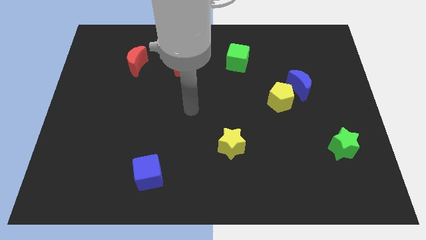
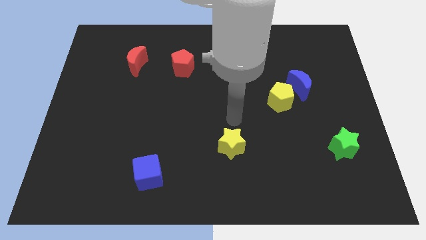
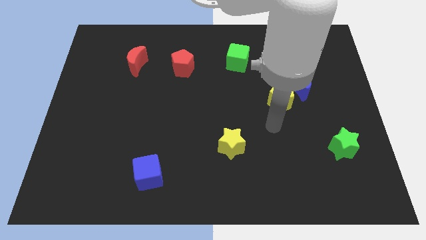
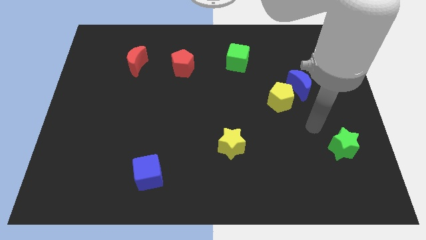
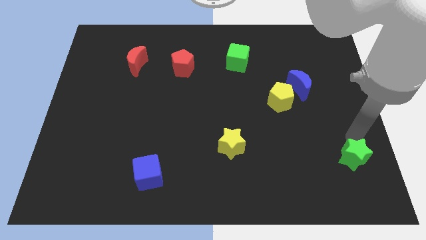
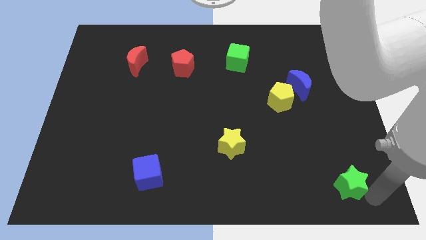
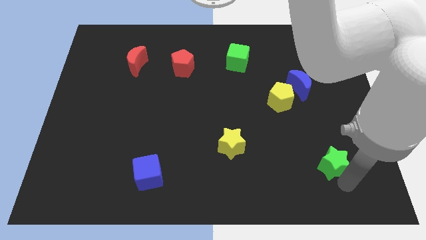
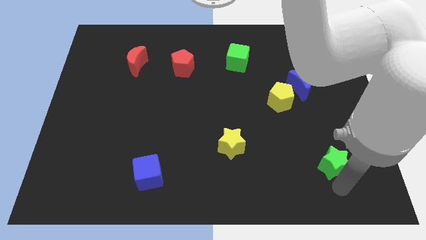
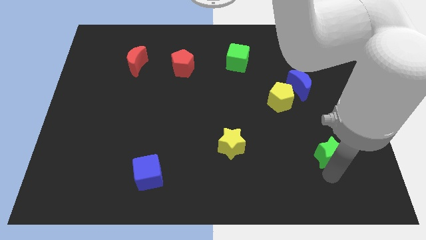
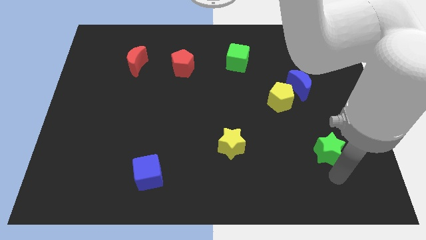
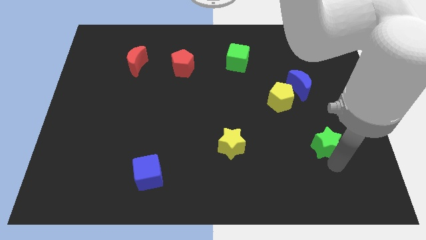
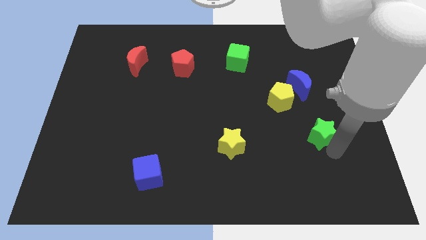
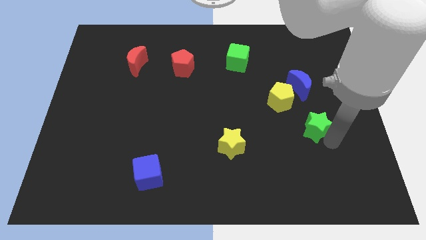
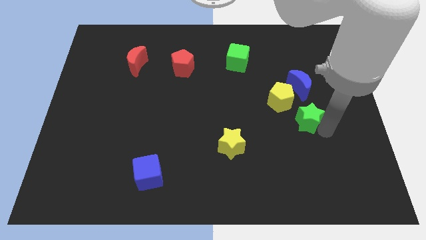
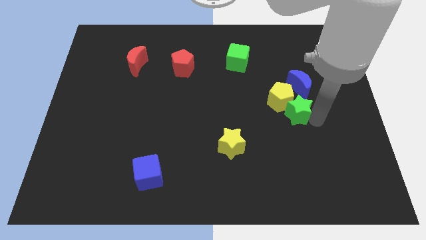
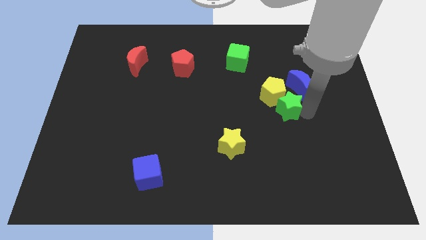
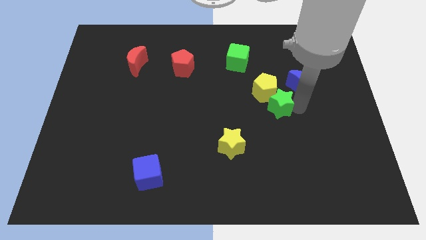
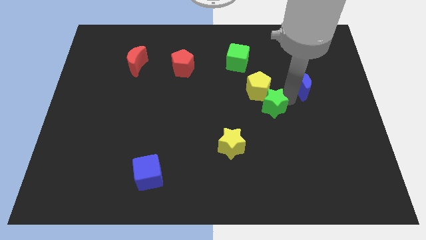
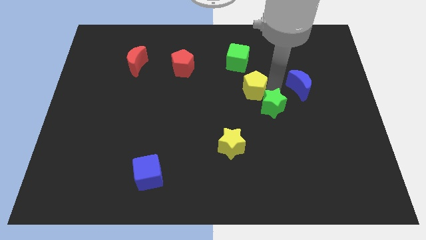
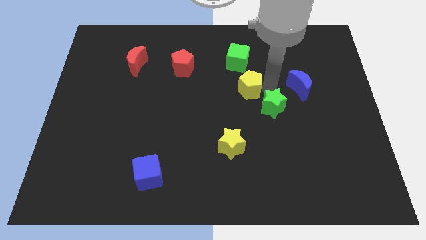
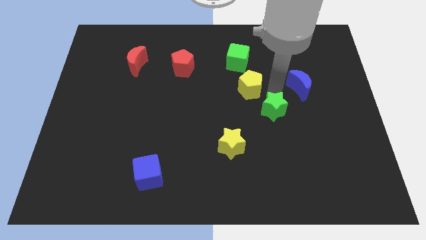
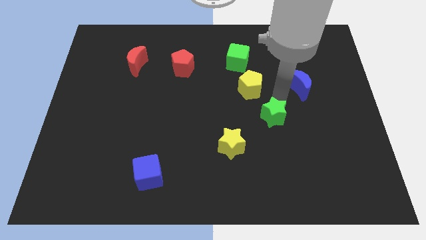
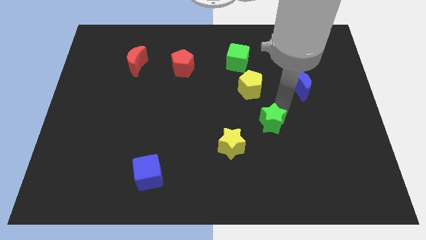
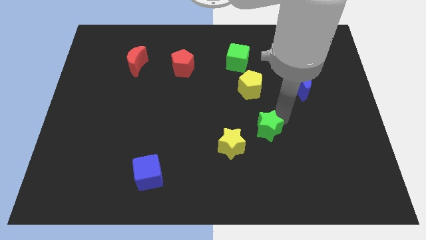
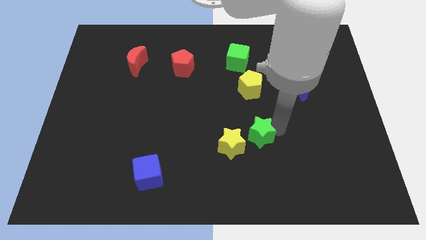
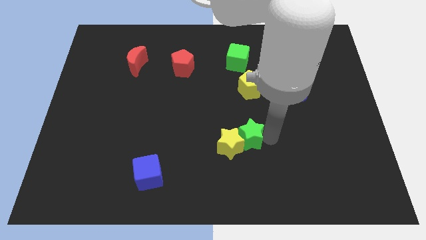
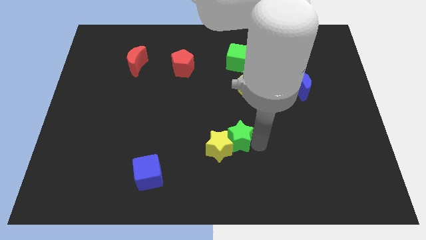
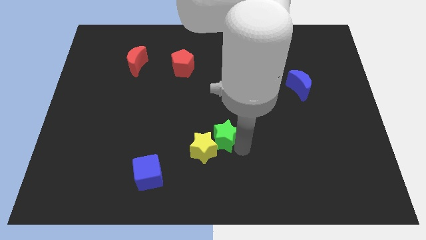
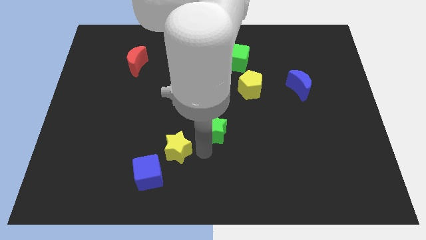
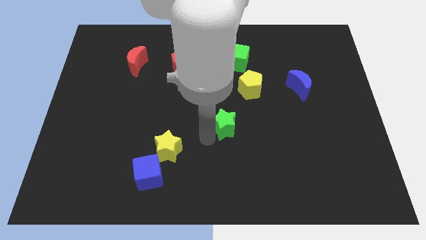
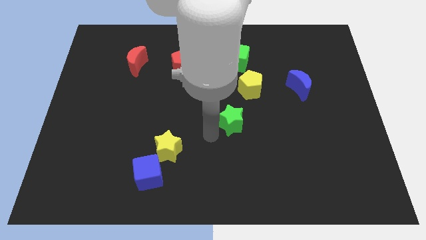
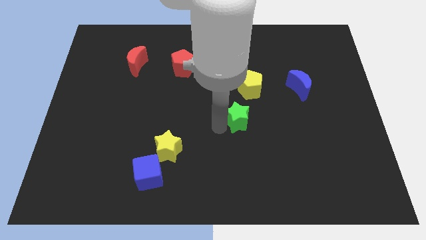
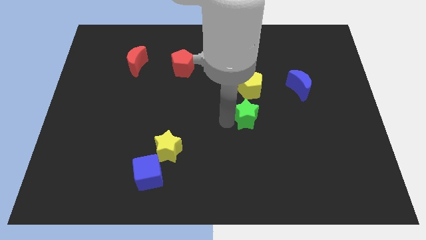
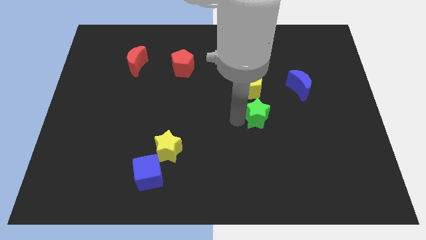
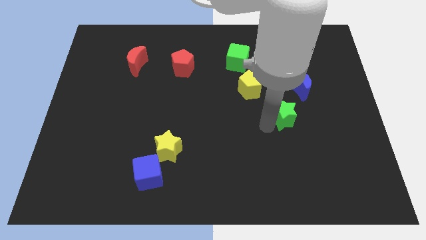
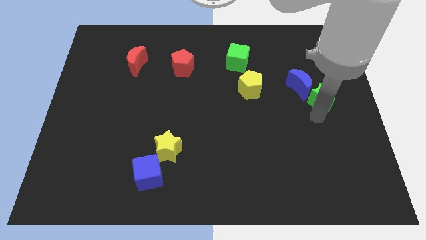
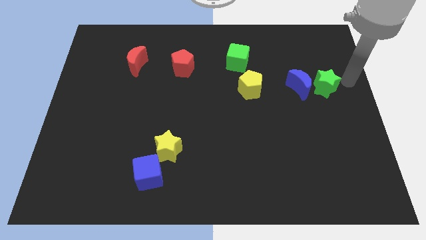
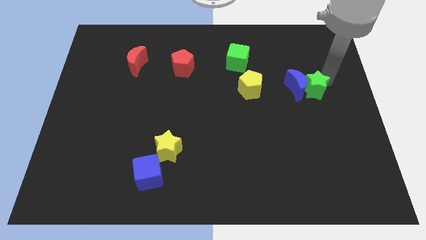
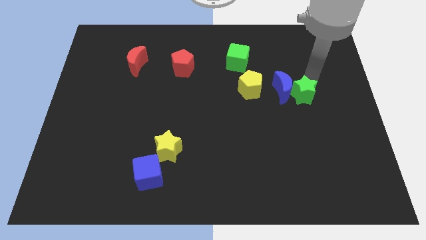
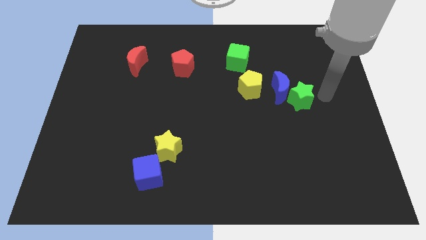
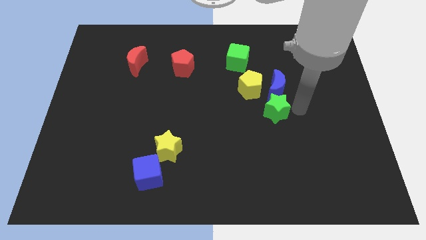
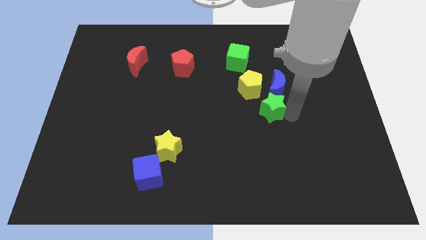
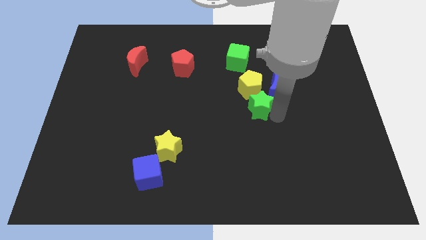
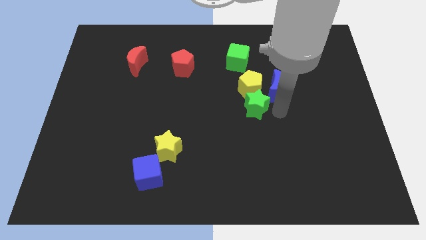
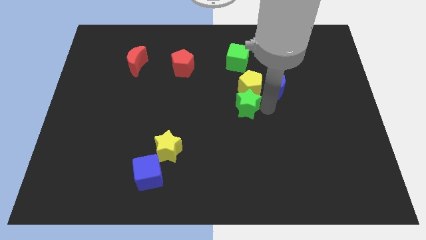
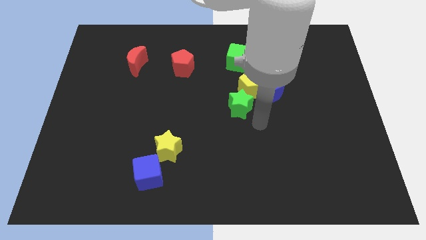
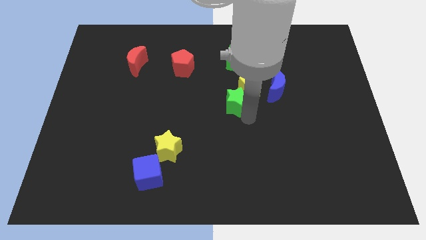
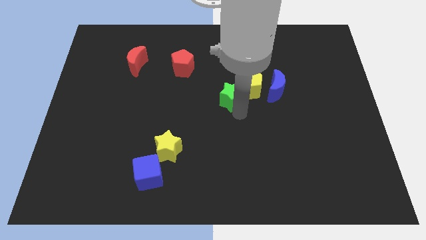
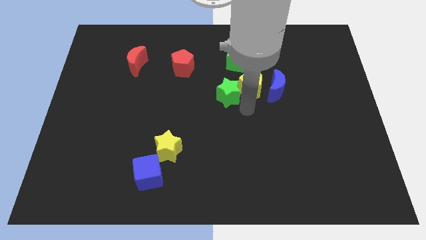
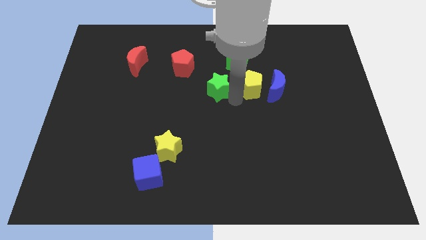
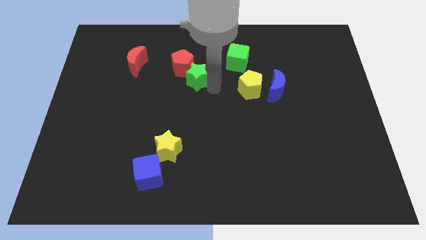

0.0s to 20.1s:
push the green star close to the red pentagon

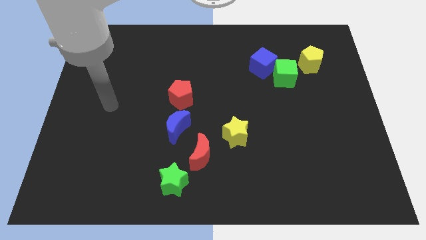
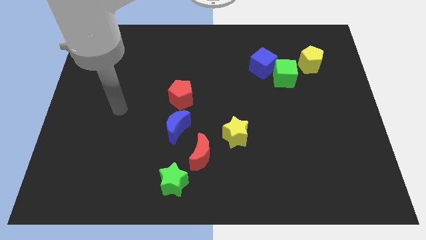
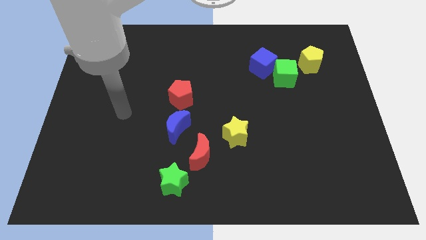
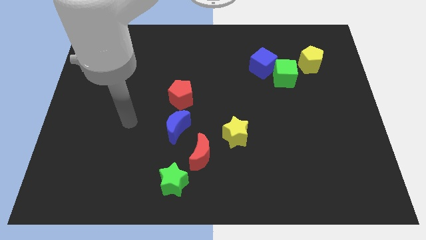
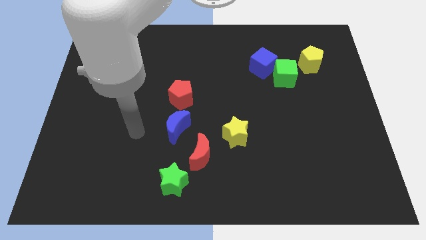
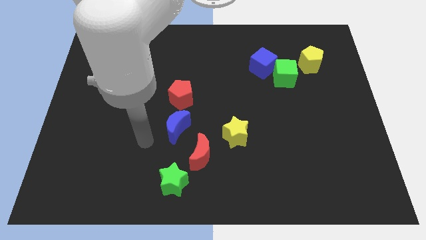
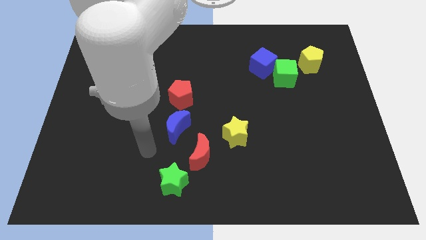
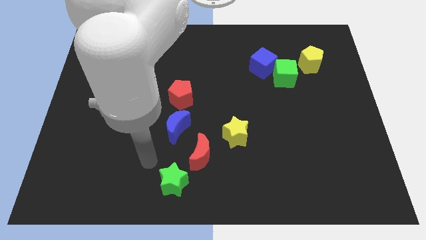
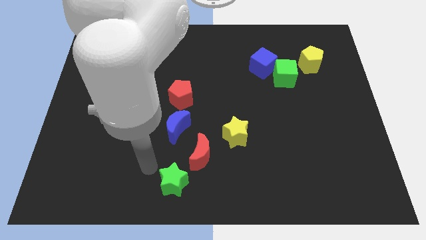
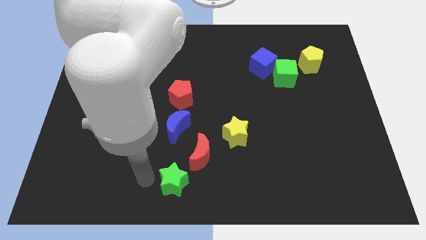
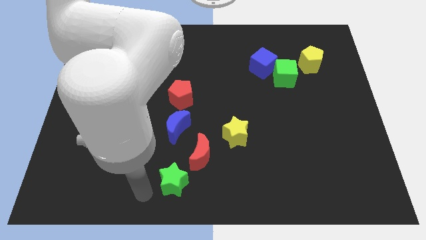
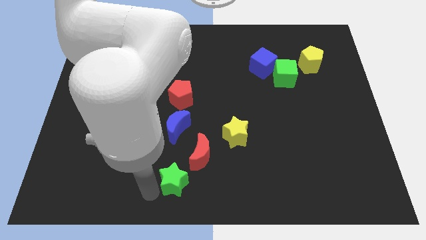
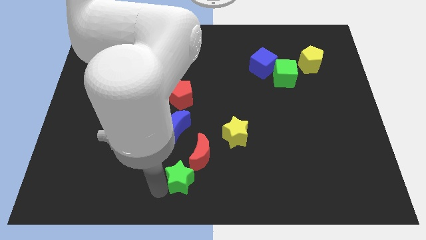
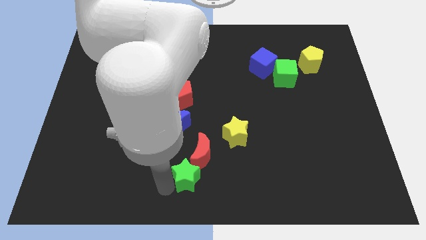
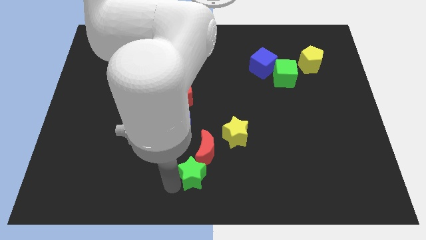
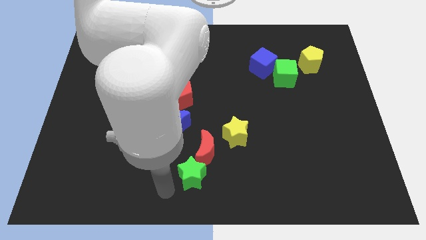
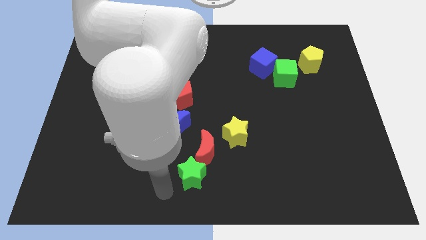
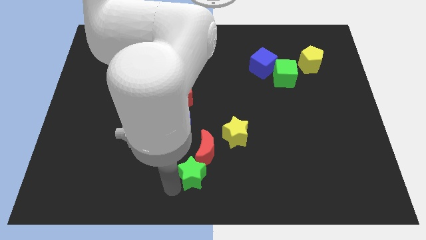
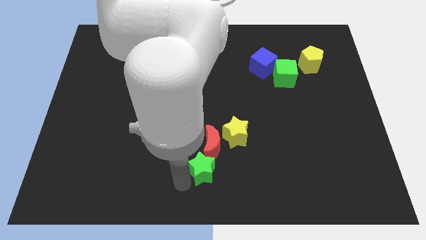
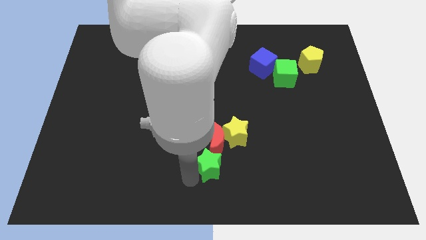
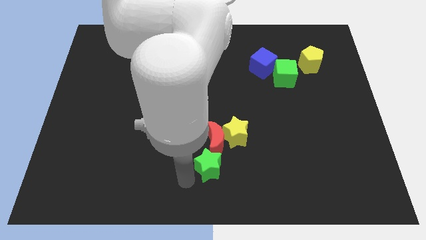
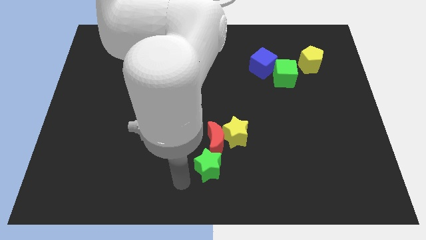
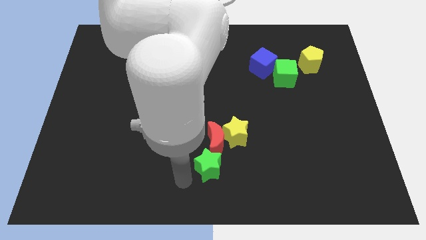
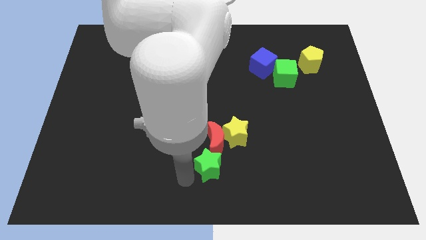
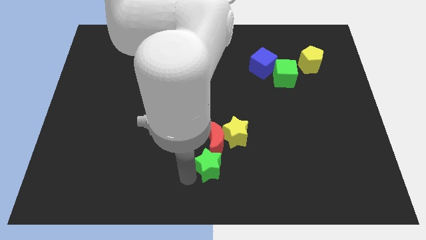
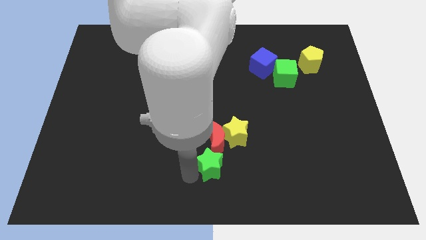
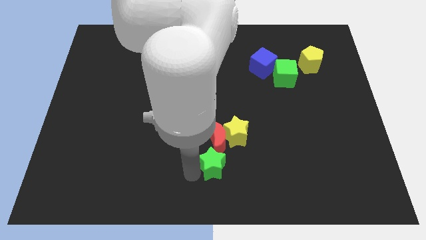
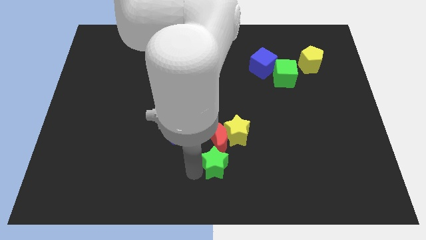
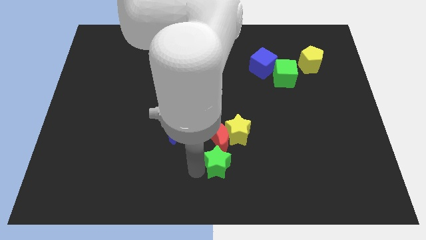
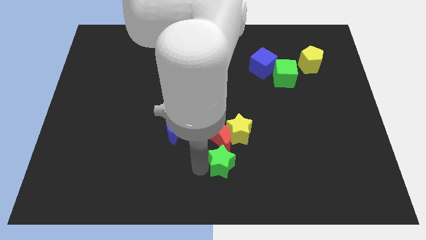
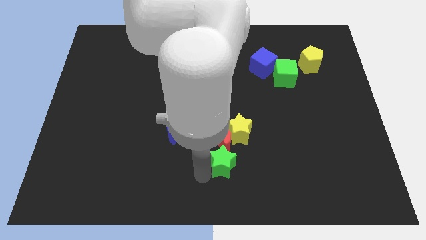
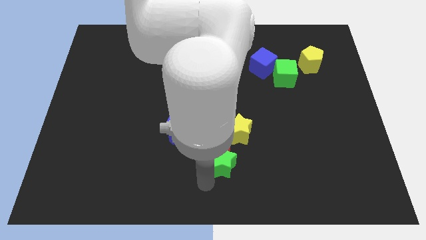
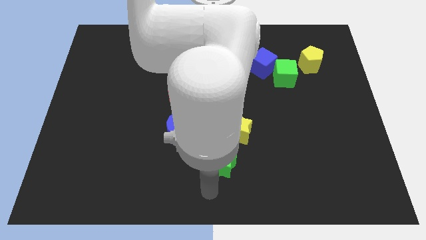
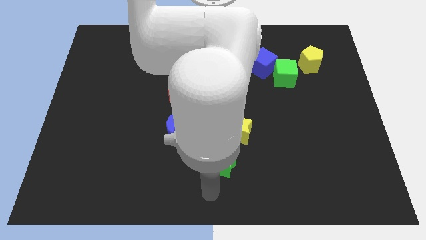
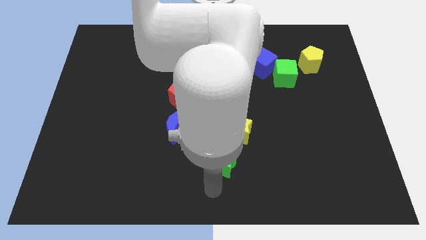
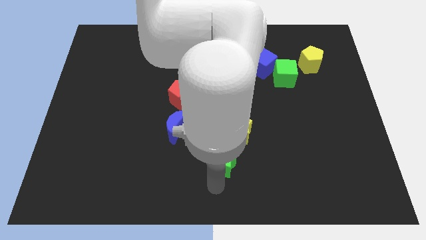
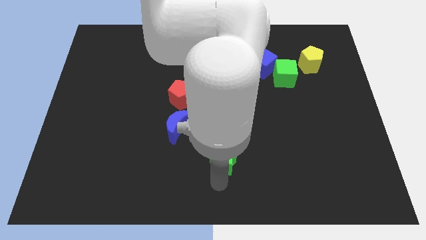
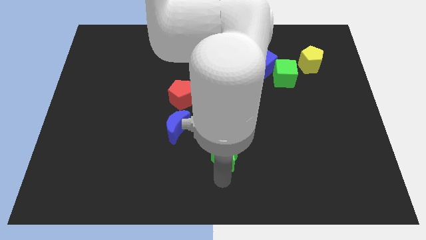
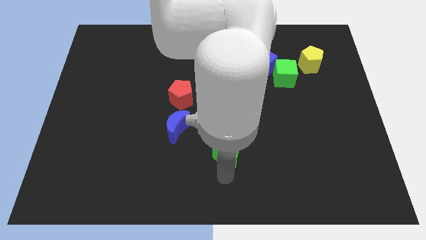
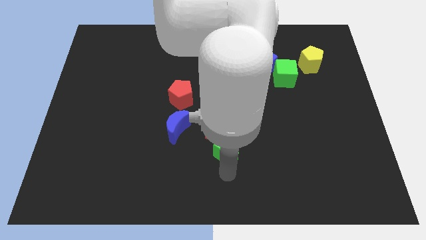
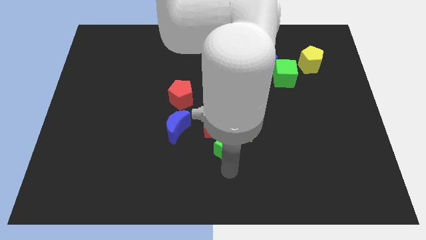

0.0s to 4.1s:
push the green star close to the yellow star
